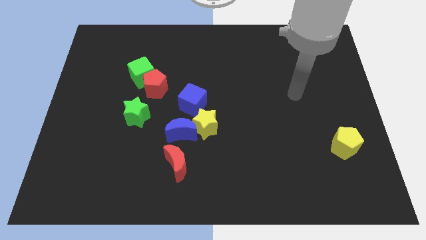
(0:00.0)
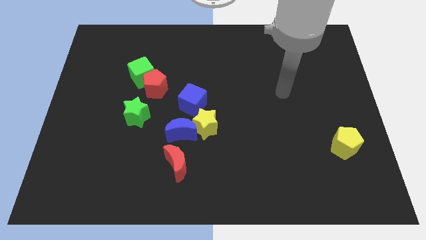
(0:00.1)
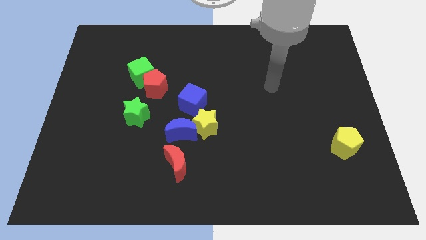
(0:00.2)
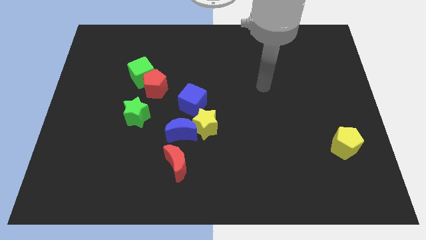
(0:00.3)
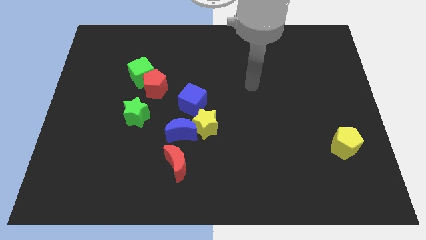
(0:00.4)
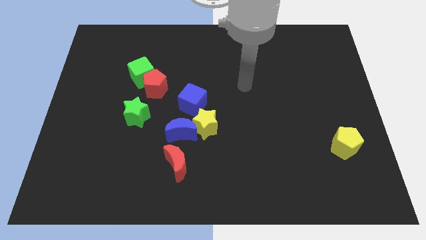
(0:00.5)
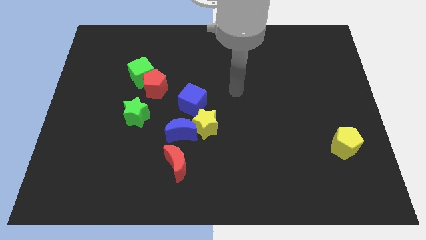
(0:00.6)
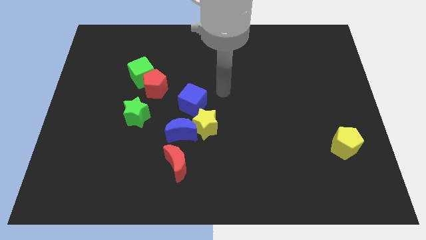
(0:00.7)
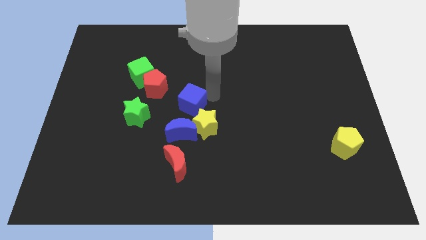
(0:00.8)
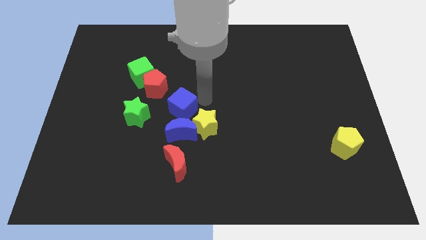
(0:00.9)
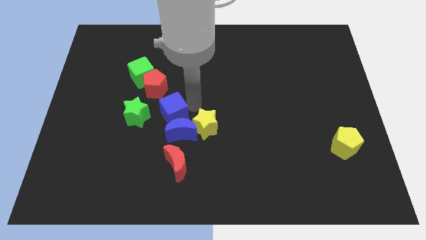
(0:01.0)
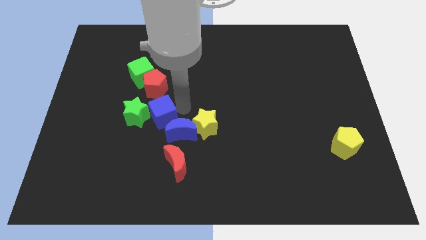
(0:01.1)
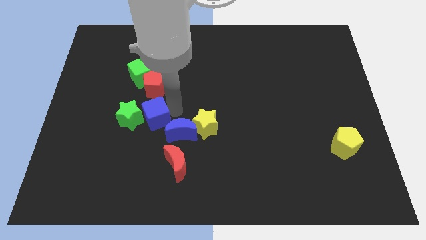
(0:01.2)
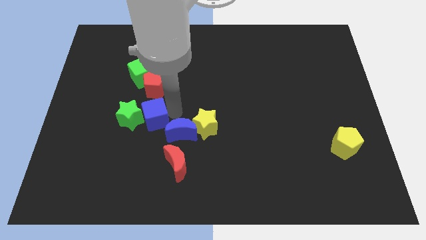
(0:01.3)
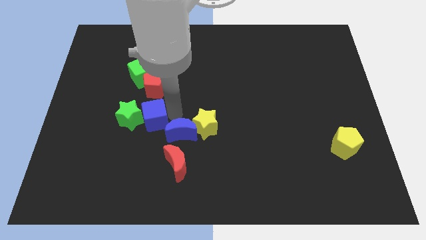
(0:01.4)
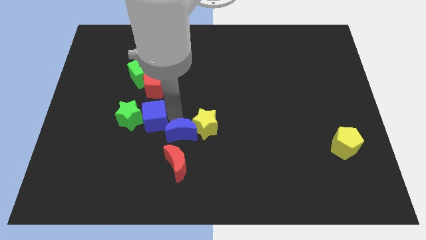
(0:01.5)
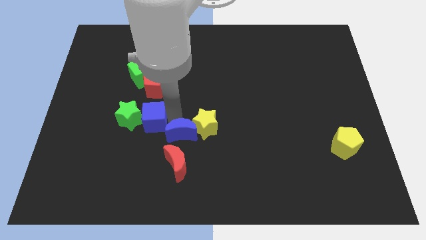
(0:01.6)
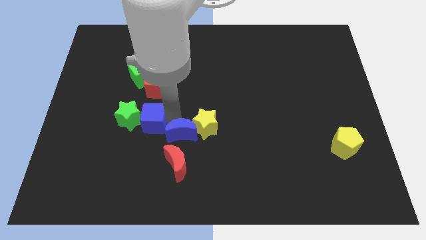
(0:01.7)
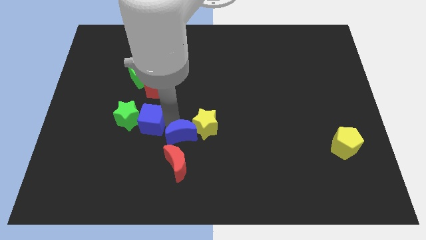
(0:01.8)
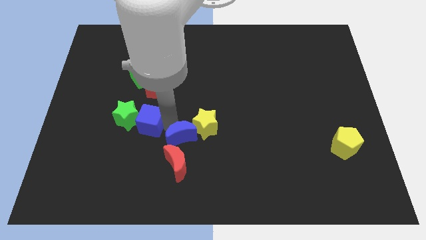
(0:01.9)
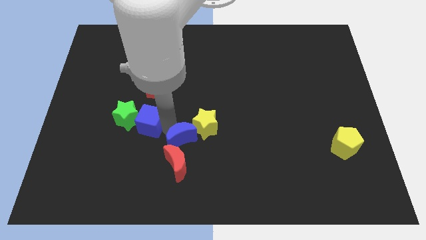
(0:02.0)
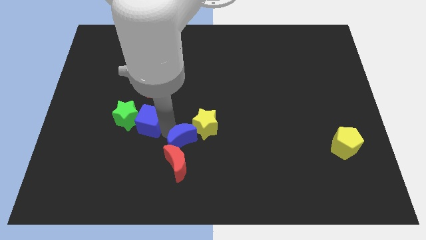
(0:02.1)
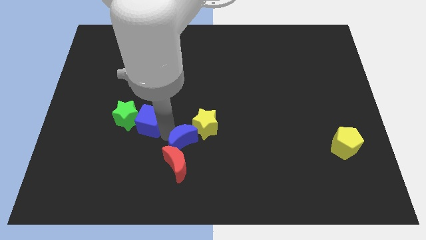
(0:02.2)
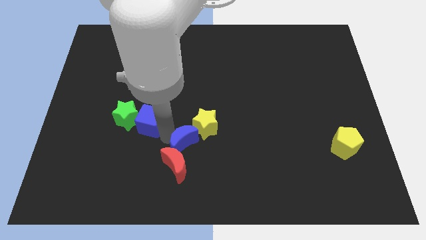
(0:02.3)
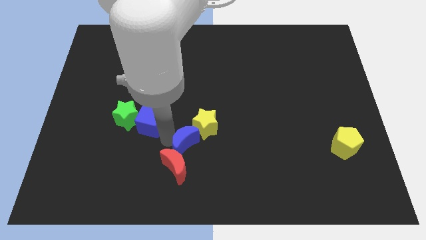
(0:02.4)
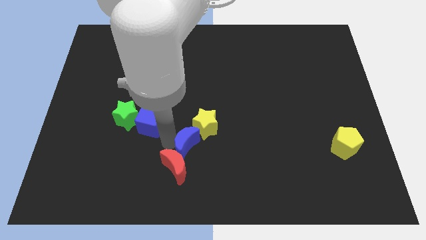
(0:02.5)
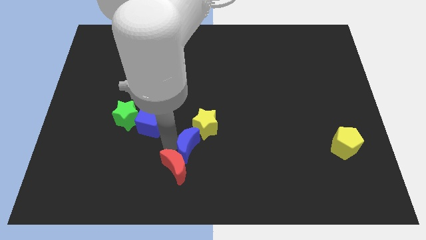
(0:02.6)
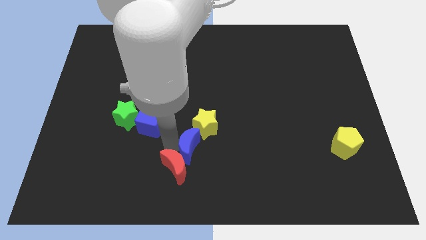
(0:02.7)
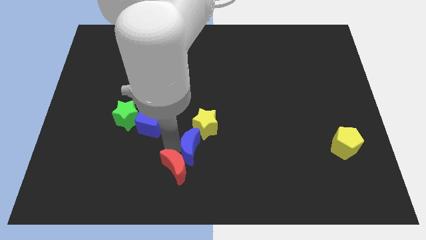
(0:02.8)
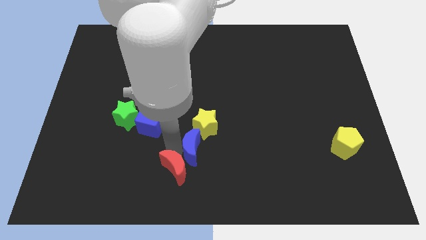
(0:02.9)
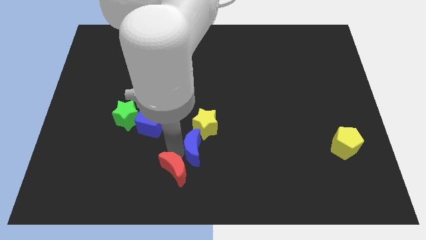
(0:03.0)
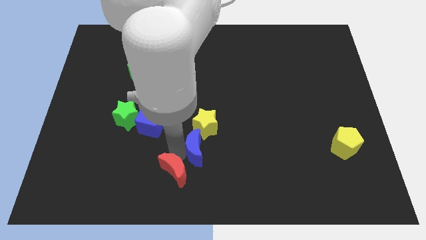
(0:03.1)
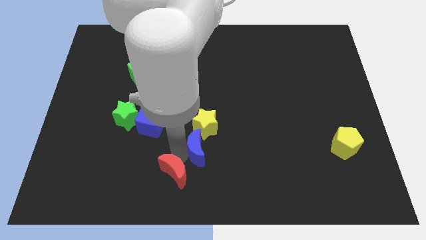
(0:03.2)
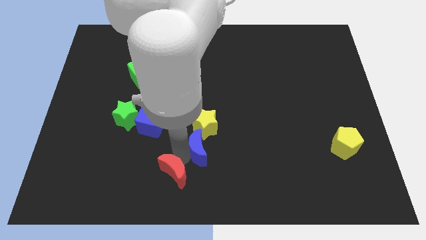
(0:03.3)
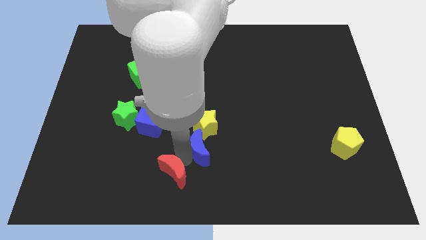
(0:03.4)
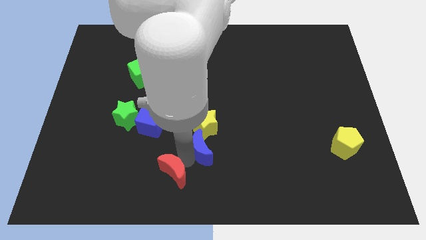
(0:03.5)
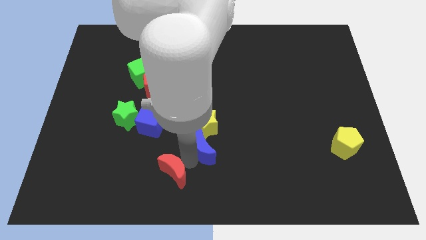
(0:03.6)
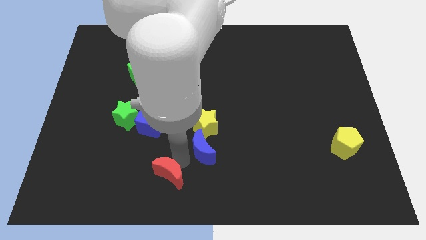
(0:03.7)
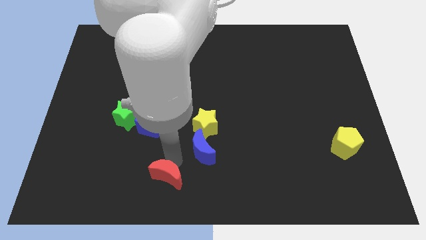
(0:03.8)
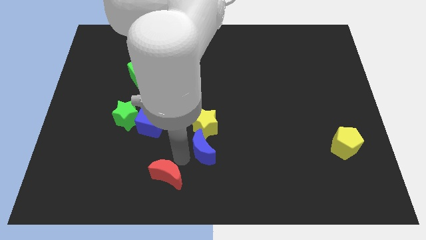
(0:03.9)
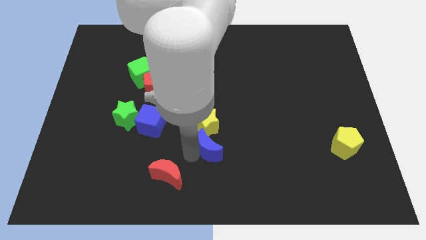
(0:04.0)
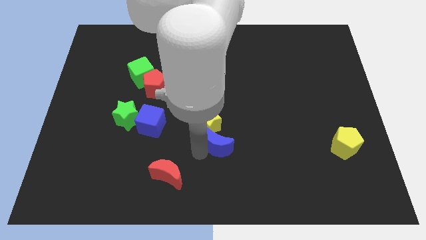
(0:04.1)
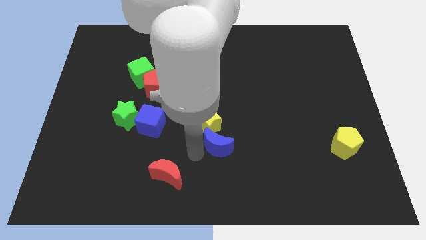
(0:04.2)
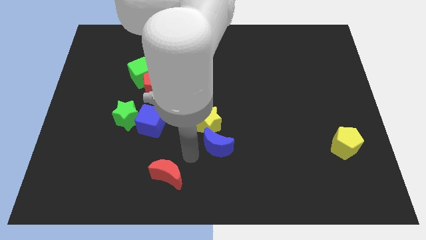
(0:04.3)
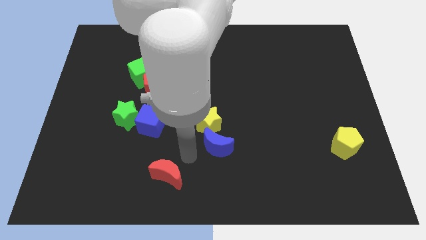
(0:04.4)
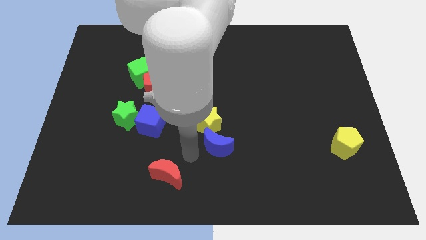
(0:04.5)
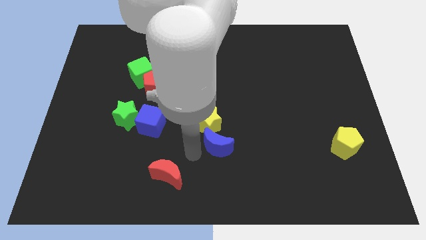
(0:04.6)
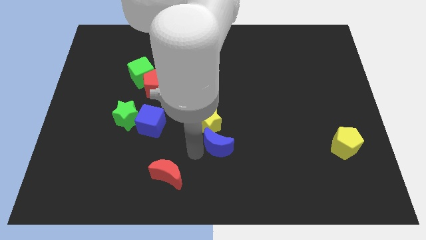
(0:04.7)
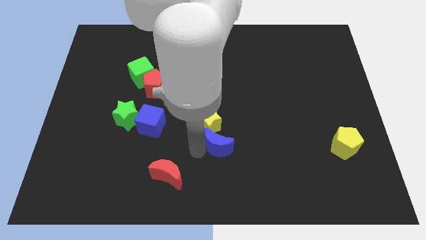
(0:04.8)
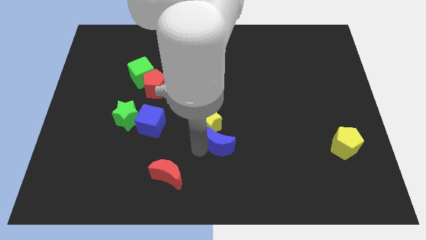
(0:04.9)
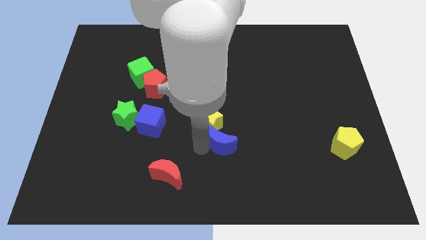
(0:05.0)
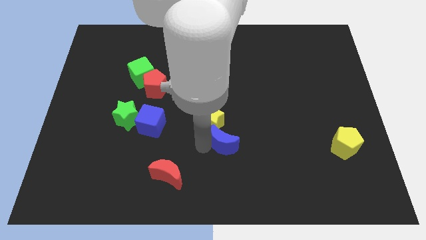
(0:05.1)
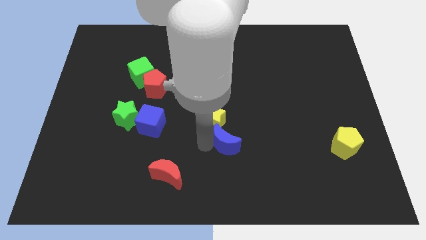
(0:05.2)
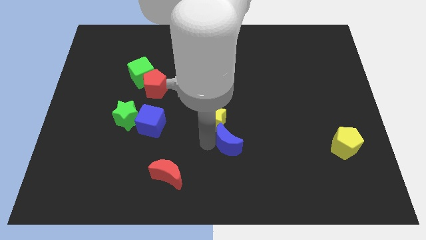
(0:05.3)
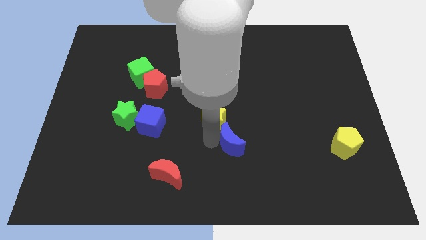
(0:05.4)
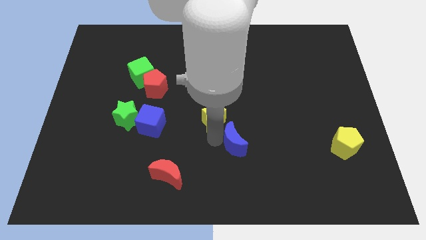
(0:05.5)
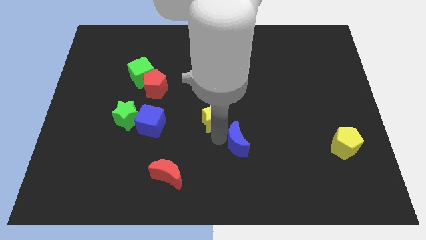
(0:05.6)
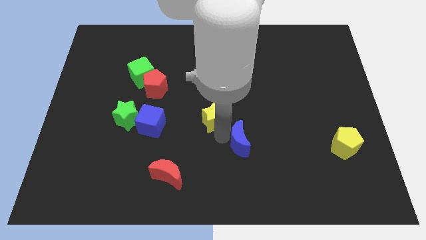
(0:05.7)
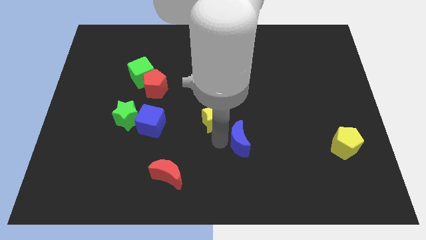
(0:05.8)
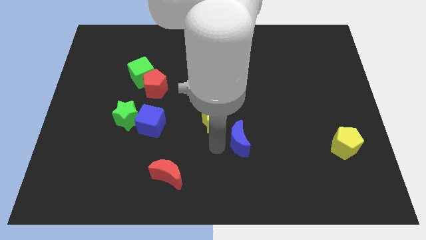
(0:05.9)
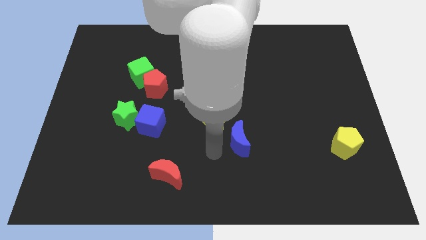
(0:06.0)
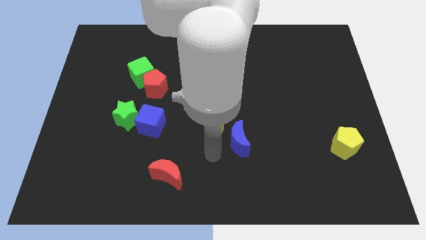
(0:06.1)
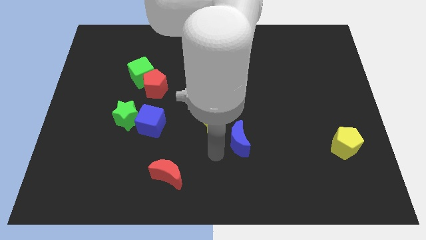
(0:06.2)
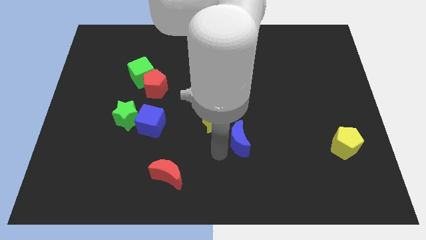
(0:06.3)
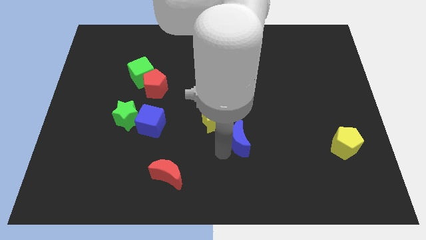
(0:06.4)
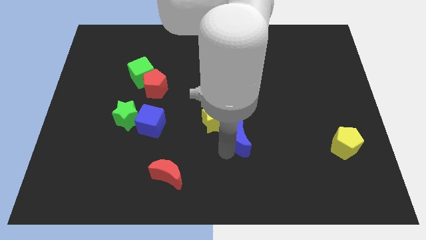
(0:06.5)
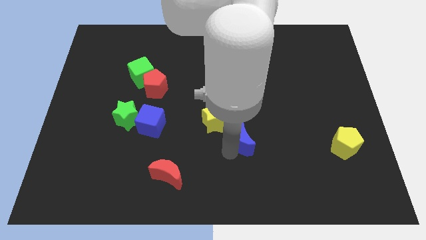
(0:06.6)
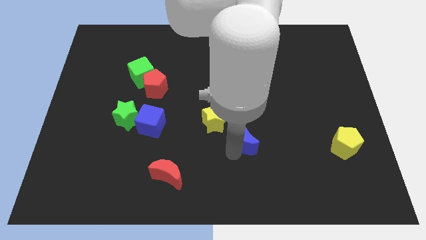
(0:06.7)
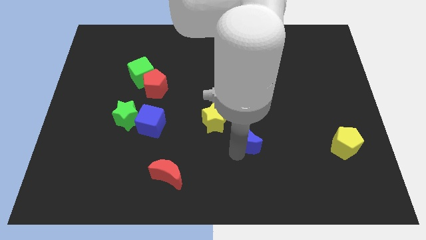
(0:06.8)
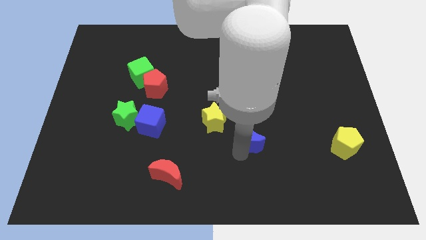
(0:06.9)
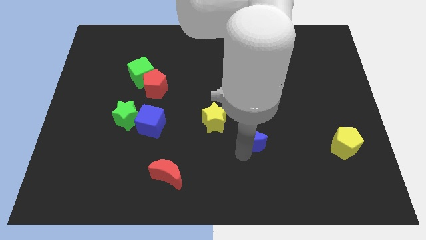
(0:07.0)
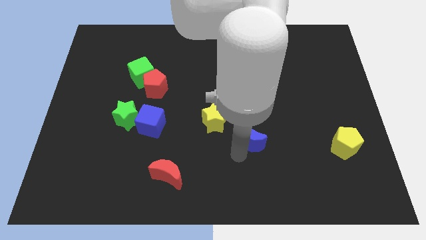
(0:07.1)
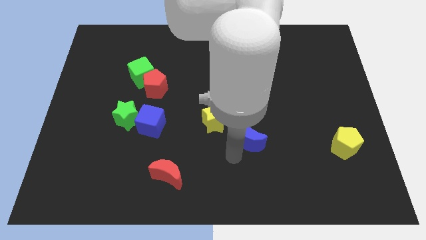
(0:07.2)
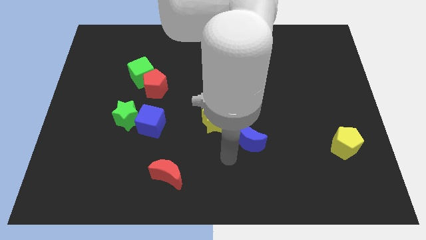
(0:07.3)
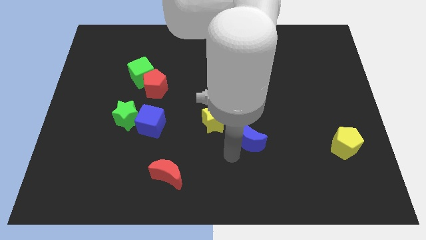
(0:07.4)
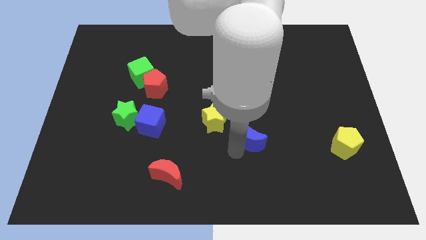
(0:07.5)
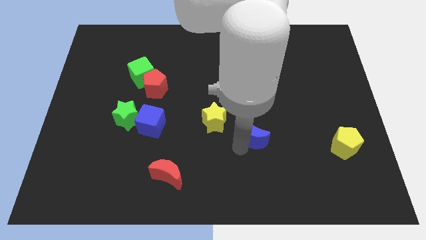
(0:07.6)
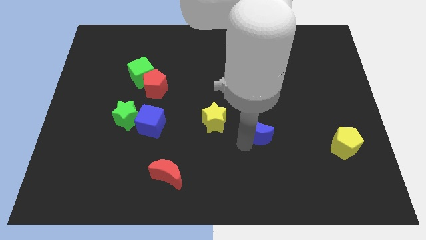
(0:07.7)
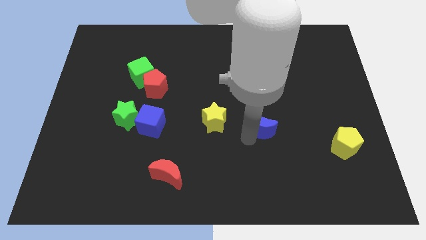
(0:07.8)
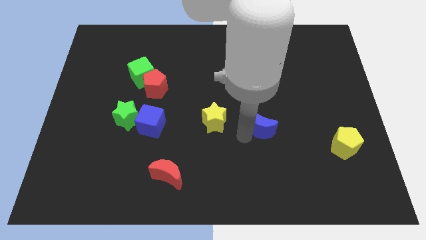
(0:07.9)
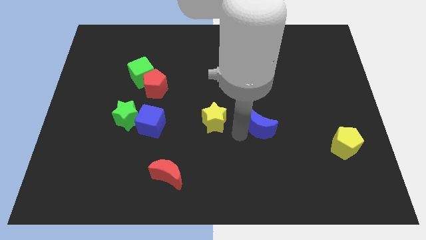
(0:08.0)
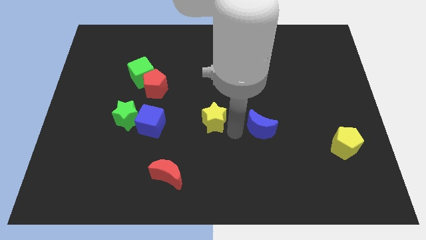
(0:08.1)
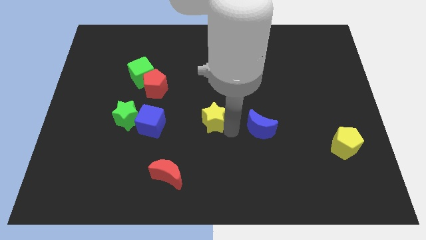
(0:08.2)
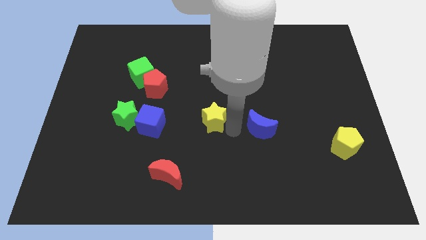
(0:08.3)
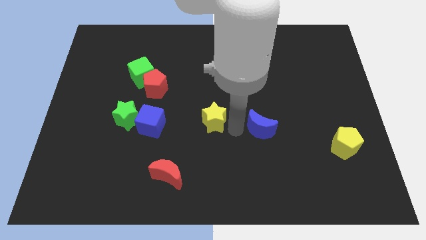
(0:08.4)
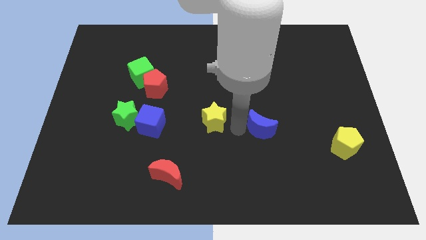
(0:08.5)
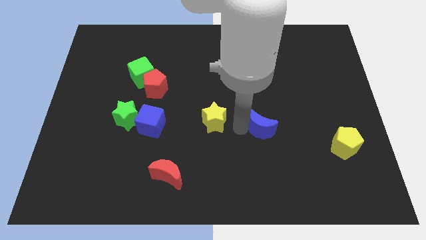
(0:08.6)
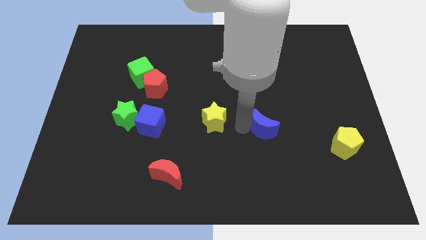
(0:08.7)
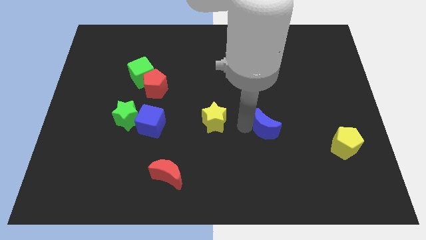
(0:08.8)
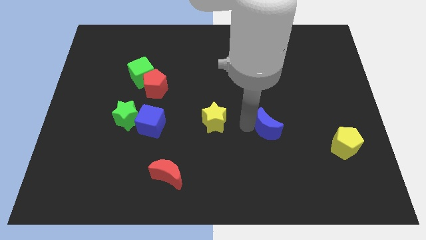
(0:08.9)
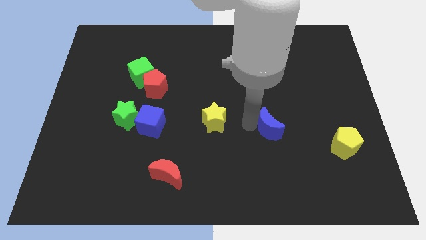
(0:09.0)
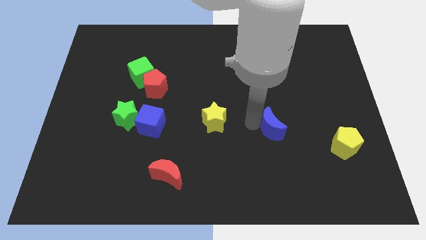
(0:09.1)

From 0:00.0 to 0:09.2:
move the blue moon right
